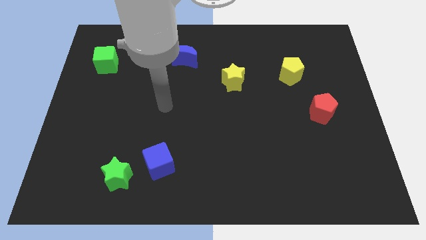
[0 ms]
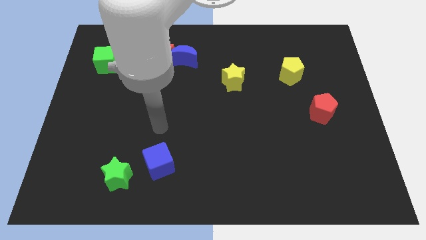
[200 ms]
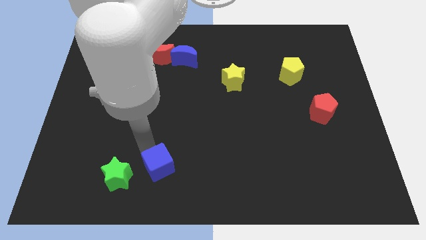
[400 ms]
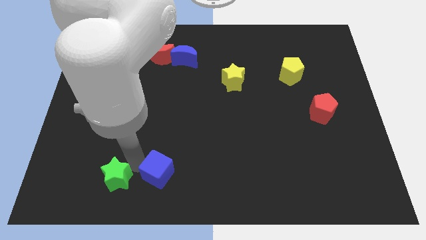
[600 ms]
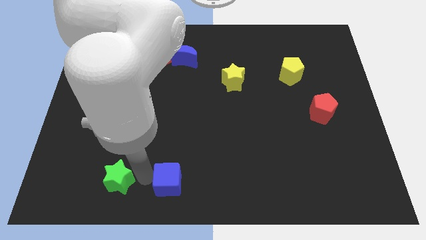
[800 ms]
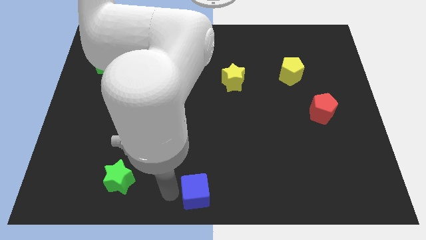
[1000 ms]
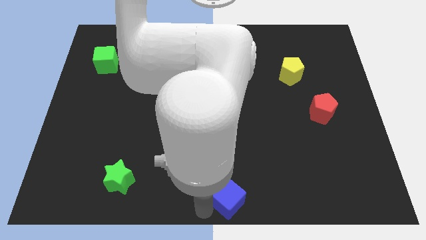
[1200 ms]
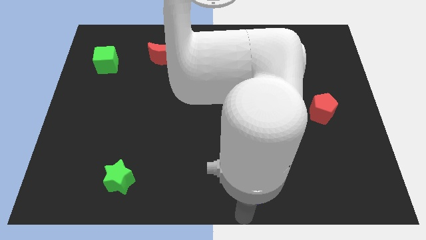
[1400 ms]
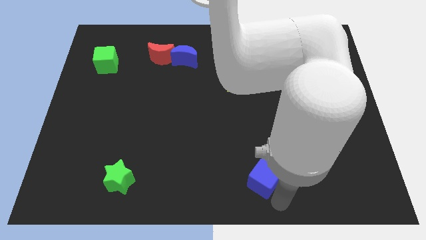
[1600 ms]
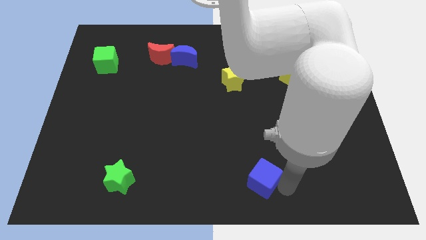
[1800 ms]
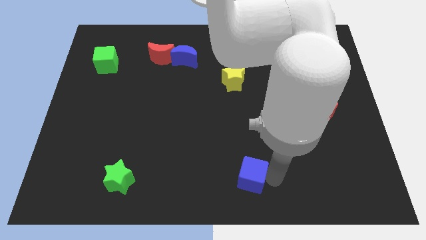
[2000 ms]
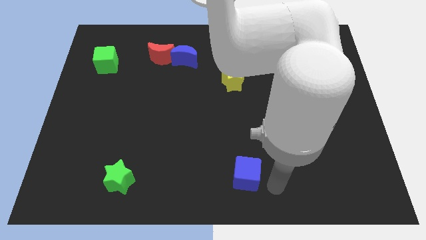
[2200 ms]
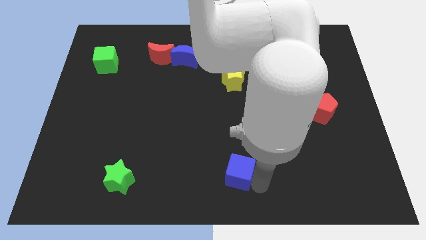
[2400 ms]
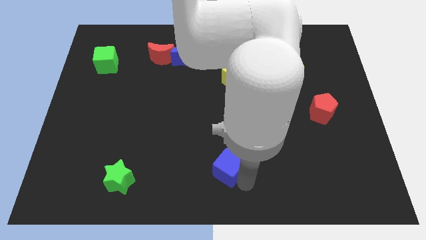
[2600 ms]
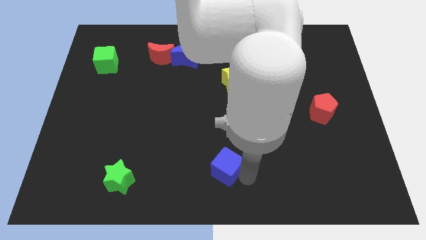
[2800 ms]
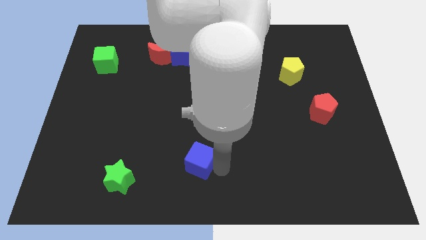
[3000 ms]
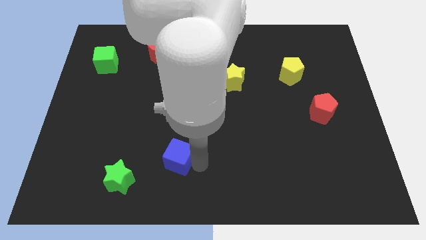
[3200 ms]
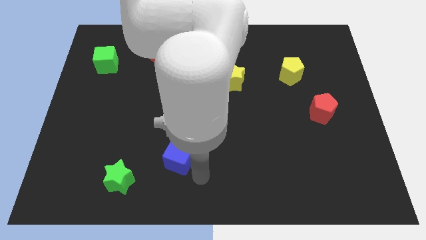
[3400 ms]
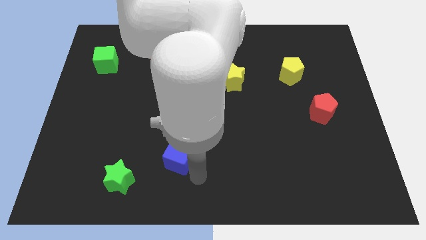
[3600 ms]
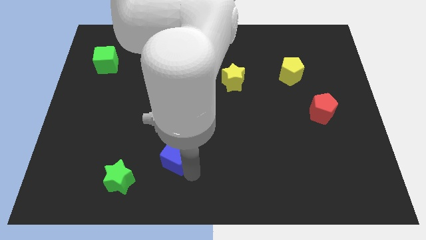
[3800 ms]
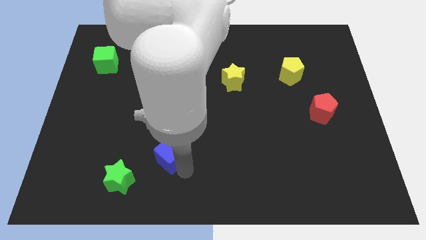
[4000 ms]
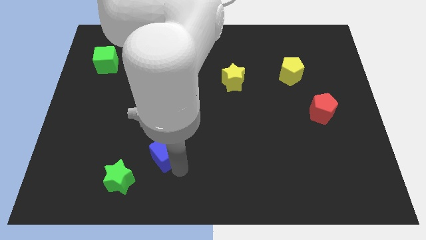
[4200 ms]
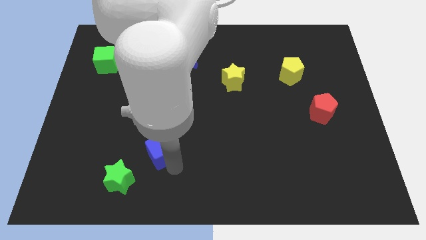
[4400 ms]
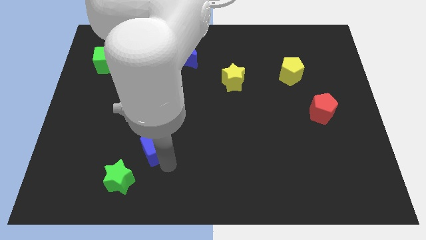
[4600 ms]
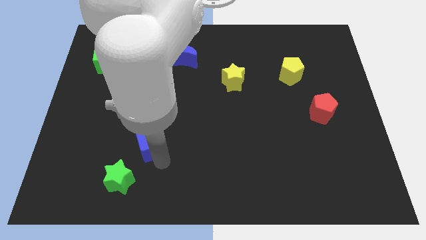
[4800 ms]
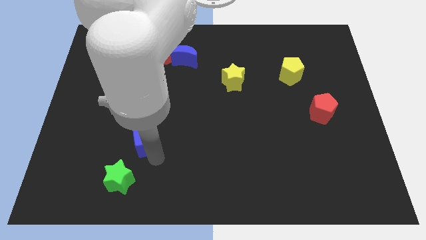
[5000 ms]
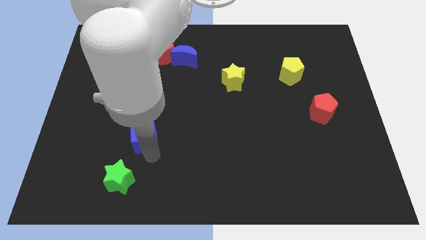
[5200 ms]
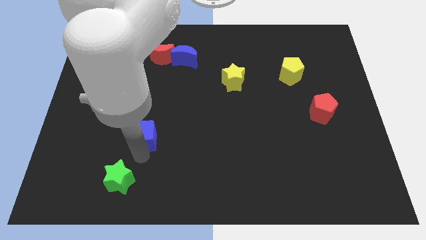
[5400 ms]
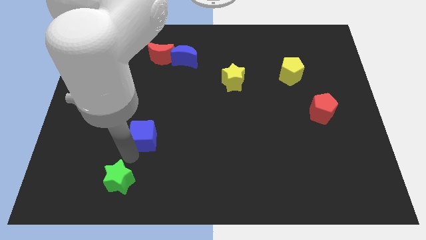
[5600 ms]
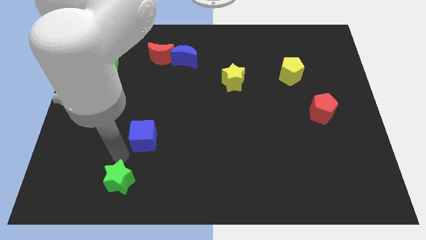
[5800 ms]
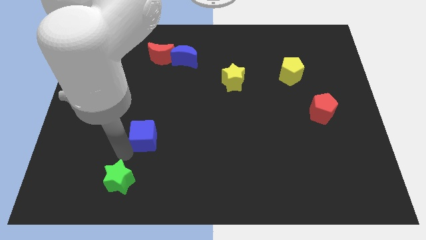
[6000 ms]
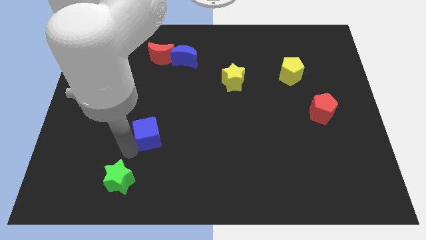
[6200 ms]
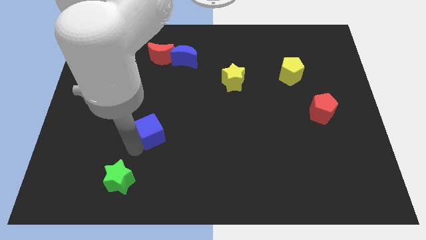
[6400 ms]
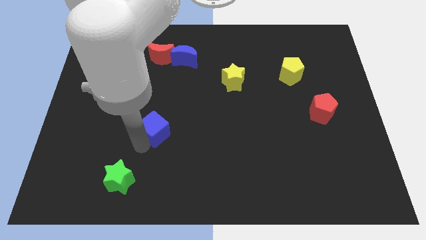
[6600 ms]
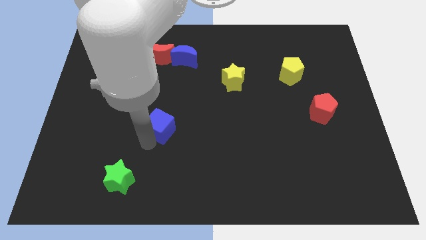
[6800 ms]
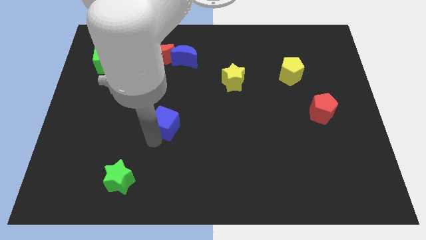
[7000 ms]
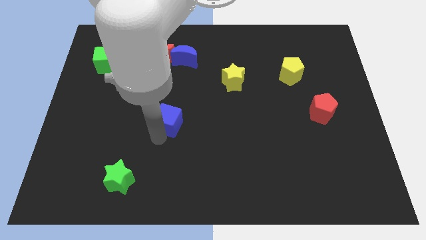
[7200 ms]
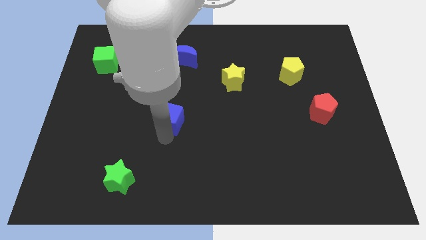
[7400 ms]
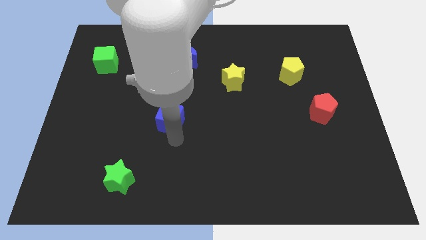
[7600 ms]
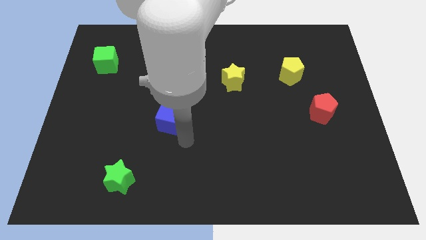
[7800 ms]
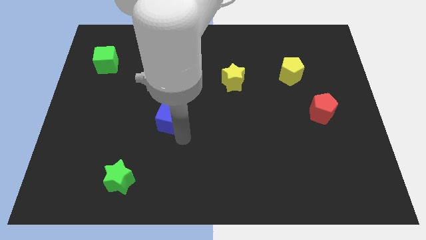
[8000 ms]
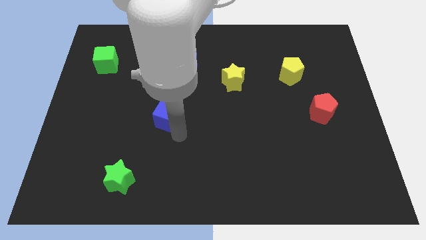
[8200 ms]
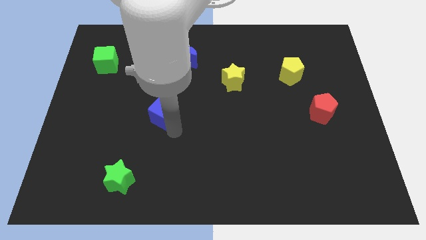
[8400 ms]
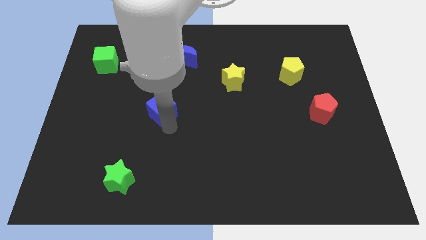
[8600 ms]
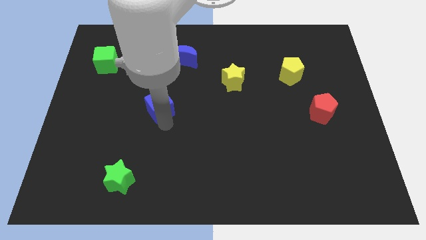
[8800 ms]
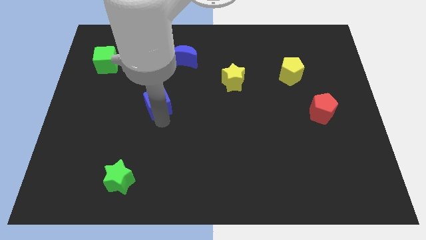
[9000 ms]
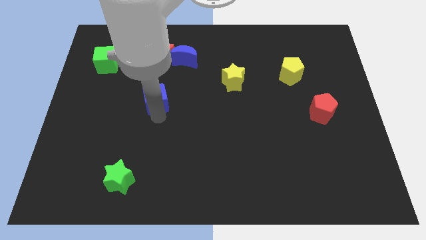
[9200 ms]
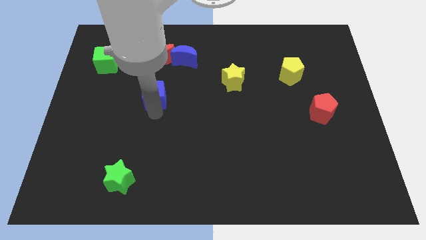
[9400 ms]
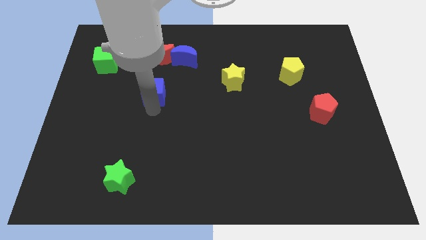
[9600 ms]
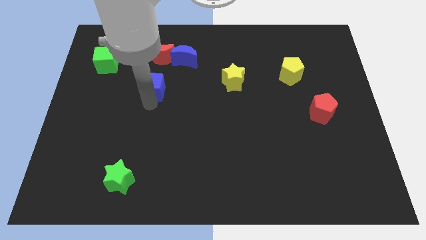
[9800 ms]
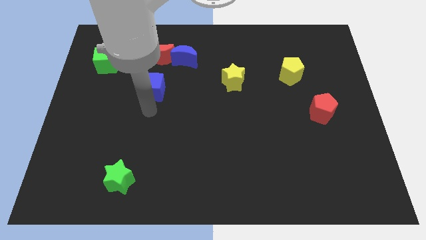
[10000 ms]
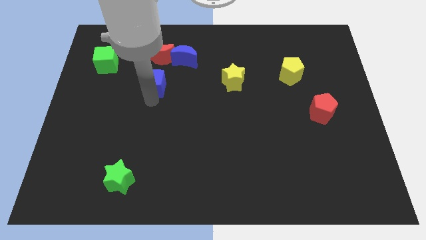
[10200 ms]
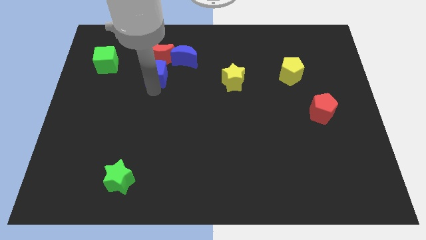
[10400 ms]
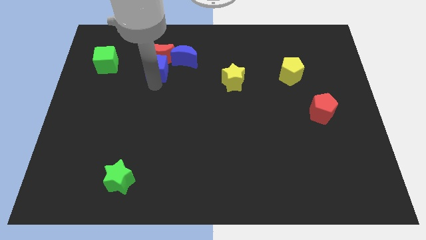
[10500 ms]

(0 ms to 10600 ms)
slide the blue cube next to the red moon

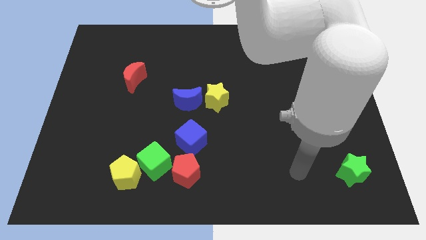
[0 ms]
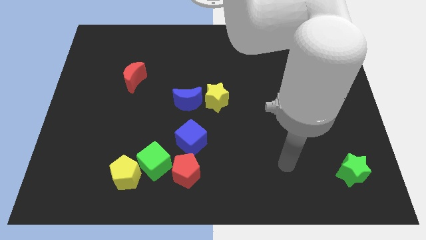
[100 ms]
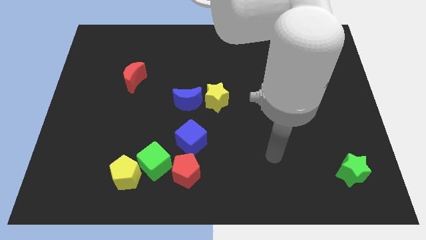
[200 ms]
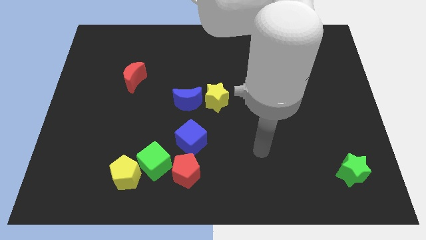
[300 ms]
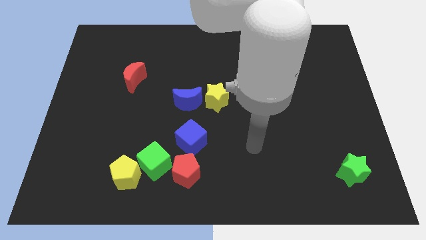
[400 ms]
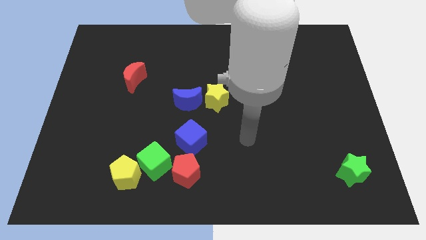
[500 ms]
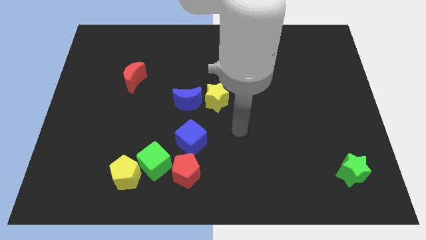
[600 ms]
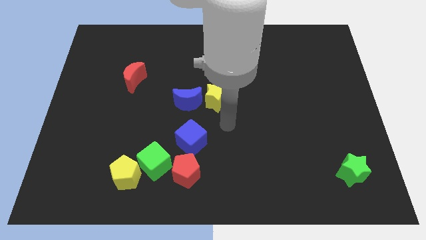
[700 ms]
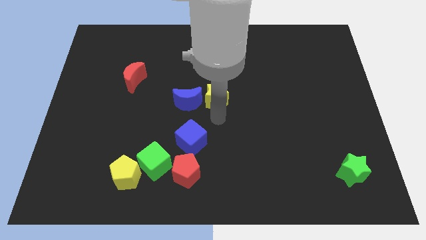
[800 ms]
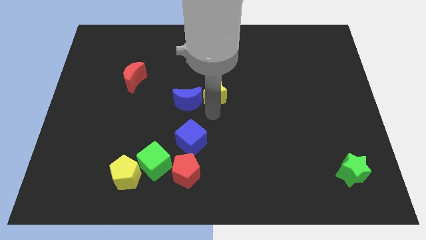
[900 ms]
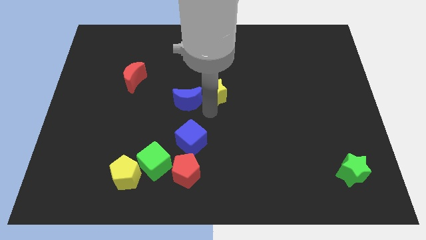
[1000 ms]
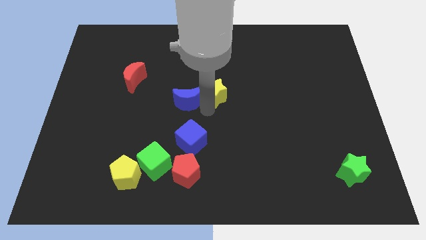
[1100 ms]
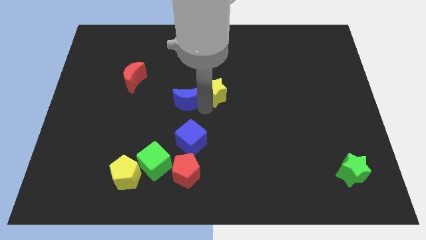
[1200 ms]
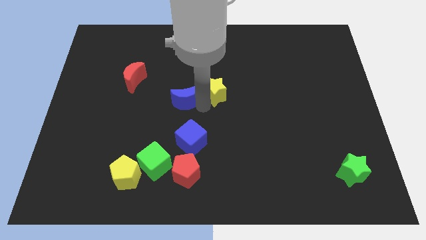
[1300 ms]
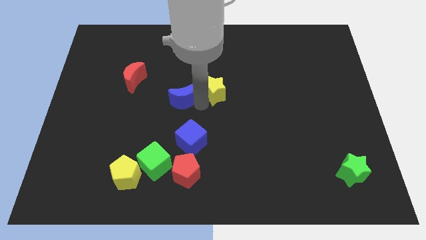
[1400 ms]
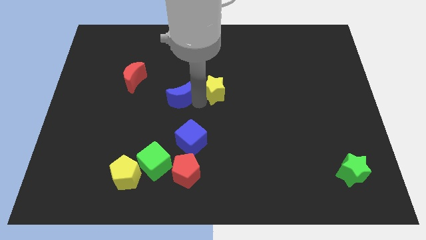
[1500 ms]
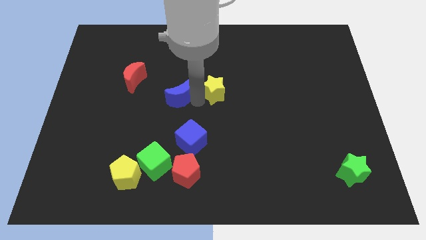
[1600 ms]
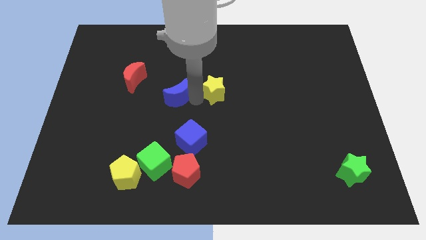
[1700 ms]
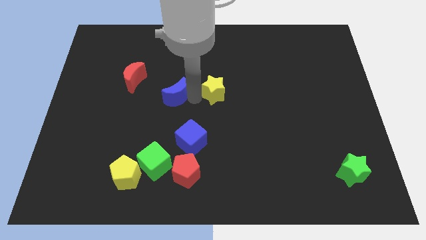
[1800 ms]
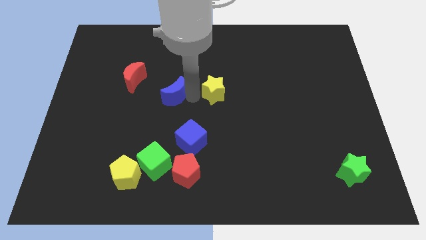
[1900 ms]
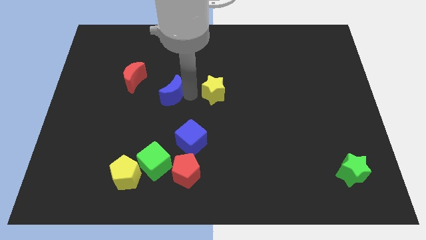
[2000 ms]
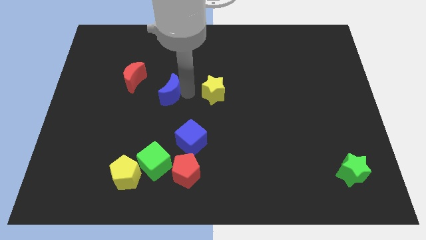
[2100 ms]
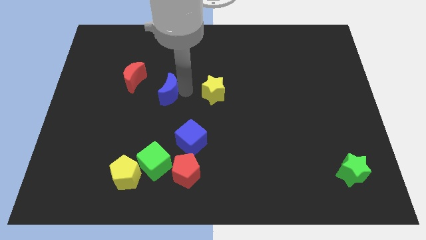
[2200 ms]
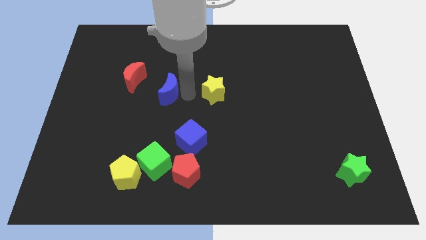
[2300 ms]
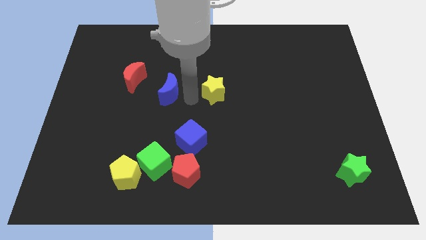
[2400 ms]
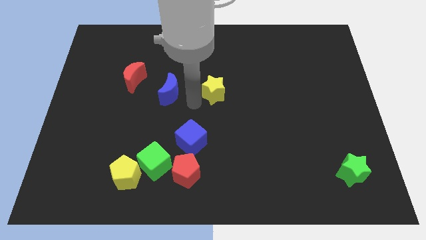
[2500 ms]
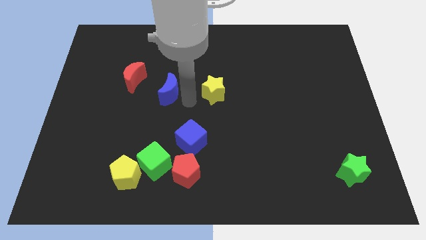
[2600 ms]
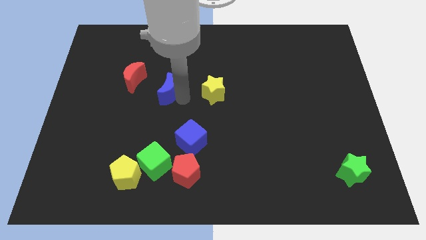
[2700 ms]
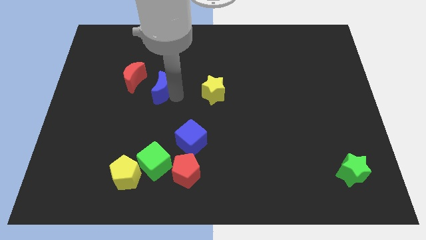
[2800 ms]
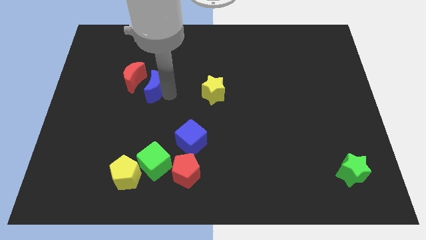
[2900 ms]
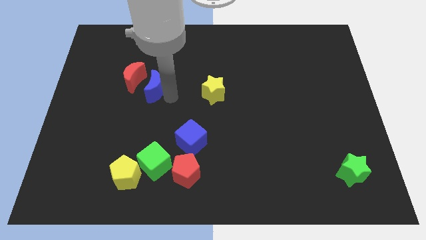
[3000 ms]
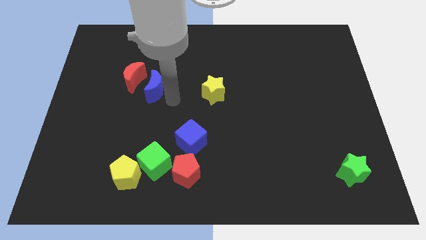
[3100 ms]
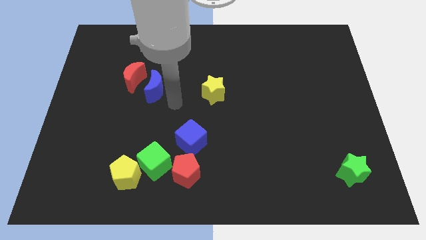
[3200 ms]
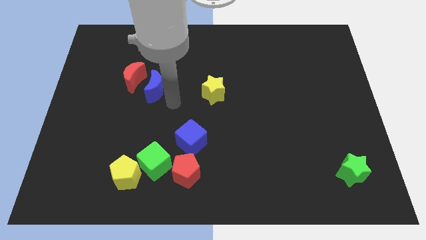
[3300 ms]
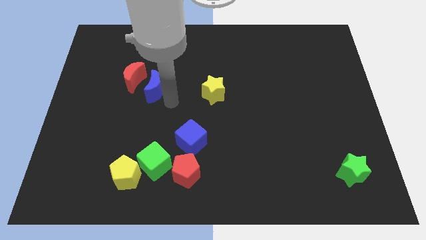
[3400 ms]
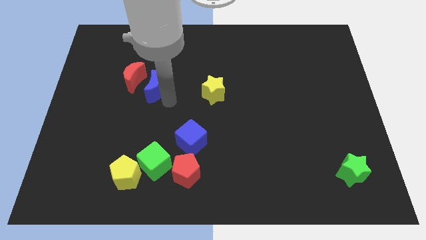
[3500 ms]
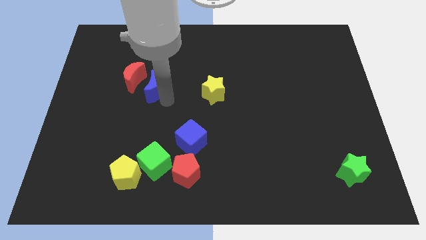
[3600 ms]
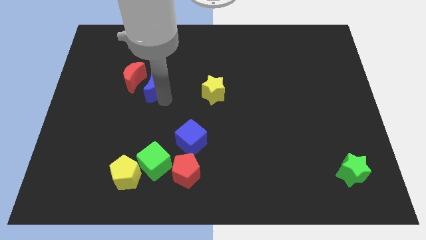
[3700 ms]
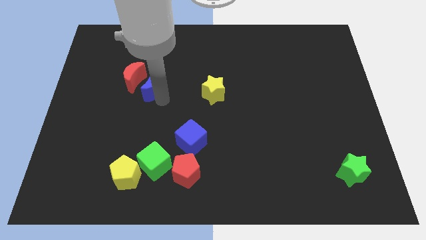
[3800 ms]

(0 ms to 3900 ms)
put the blue moon close to the red moon
